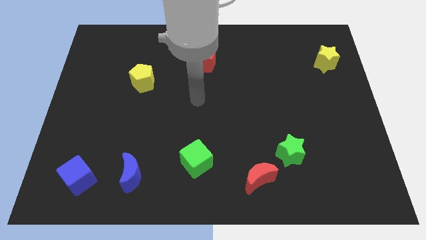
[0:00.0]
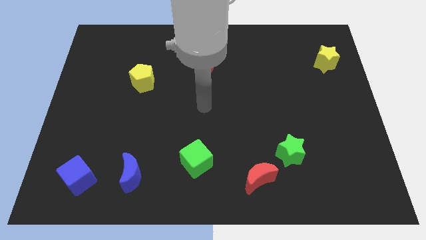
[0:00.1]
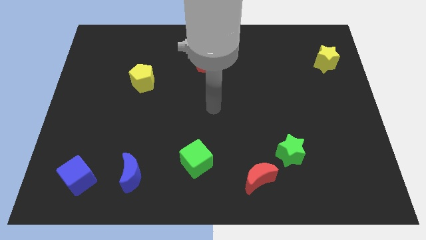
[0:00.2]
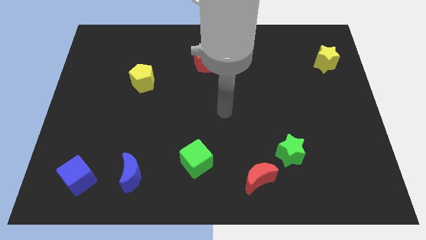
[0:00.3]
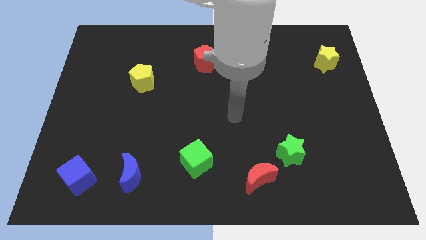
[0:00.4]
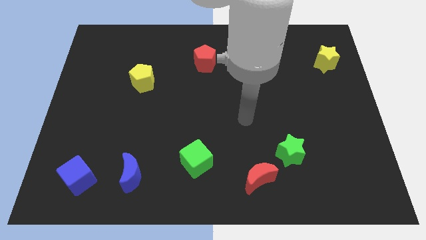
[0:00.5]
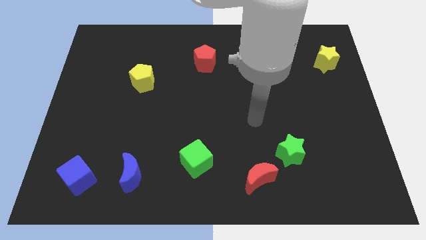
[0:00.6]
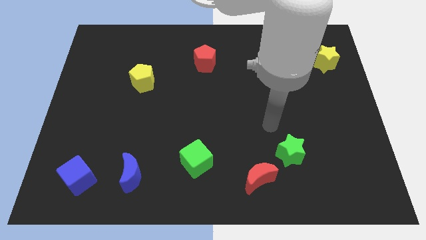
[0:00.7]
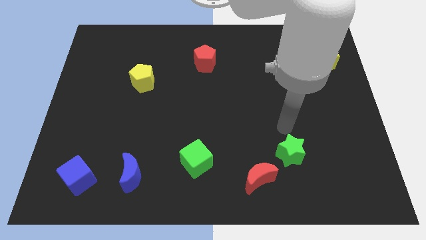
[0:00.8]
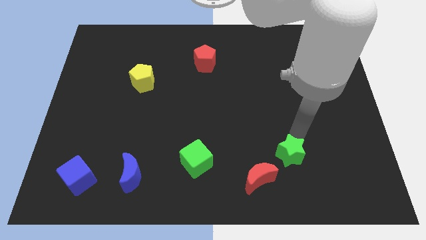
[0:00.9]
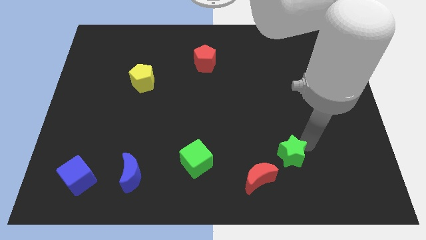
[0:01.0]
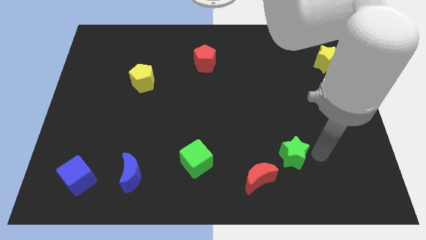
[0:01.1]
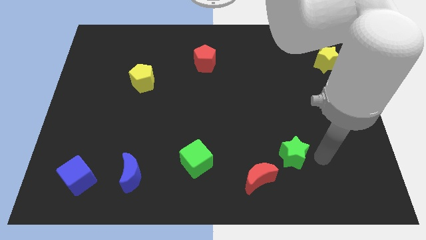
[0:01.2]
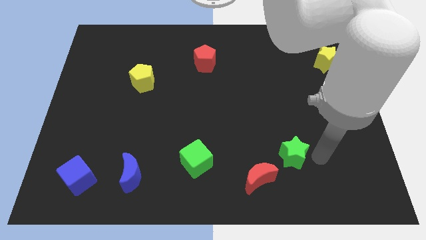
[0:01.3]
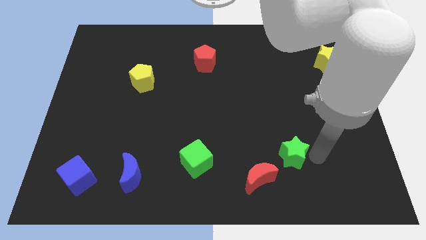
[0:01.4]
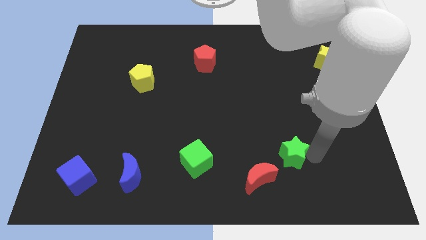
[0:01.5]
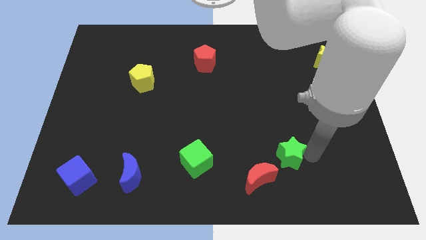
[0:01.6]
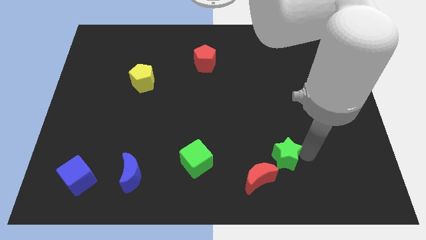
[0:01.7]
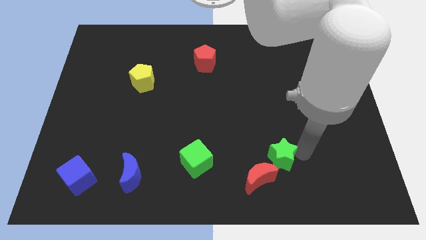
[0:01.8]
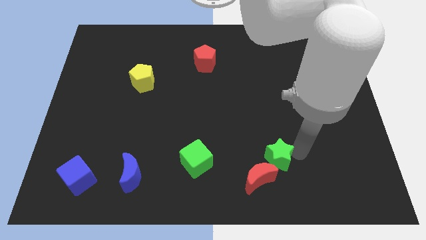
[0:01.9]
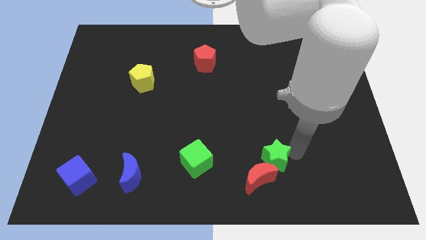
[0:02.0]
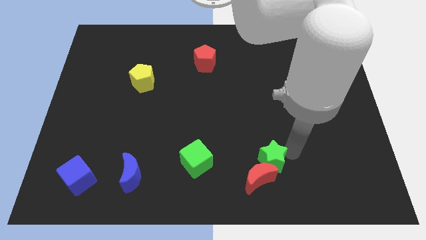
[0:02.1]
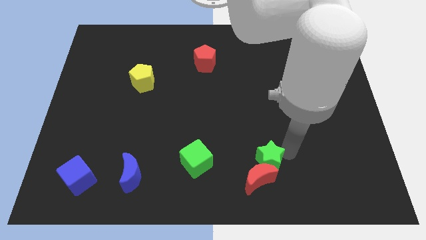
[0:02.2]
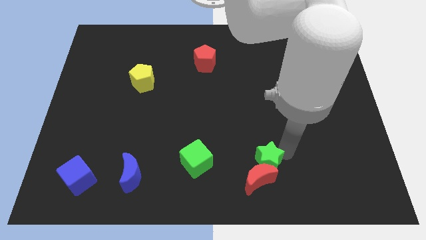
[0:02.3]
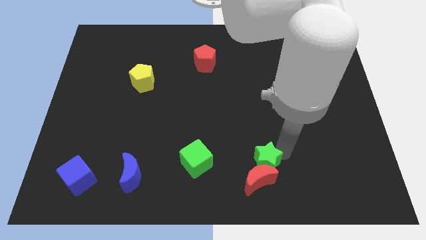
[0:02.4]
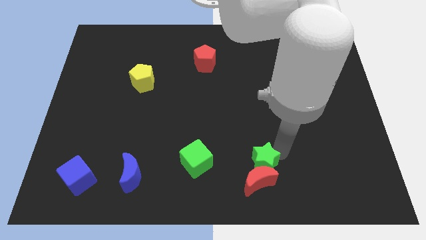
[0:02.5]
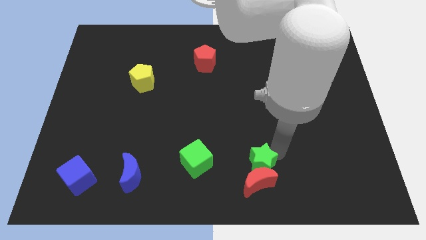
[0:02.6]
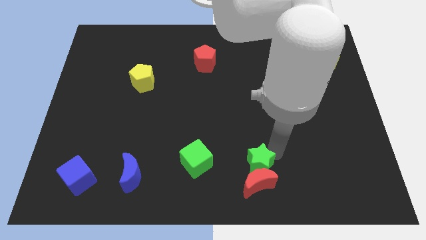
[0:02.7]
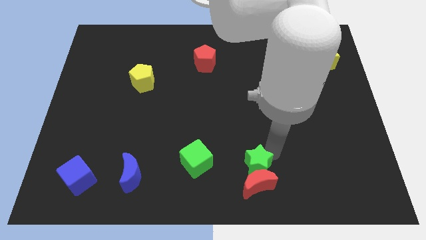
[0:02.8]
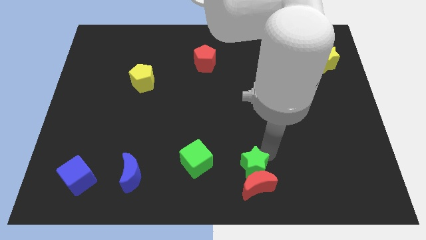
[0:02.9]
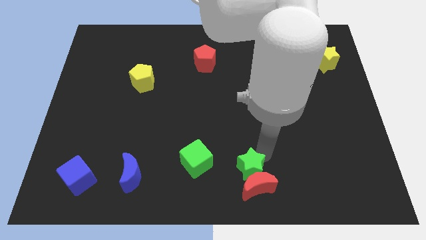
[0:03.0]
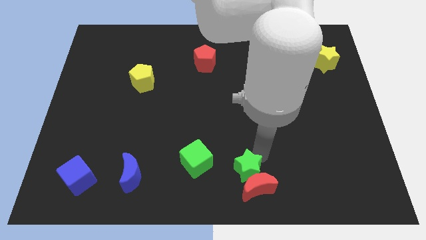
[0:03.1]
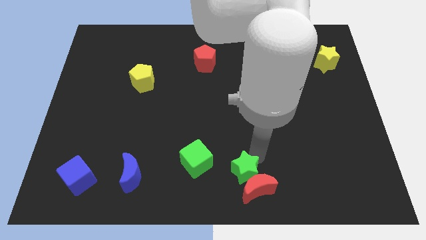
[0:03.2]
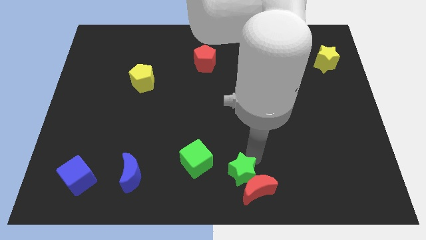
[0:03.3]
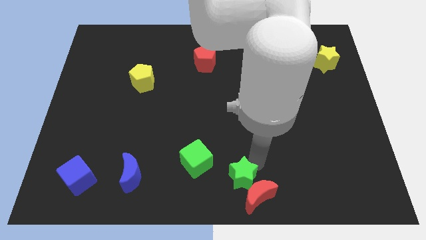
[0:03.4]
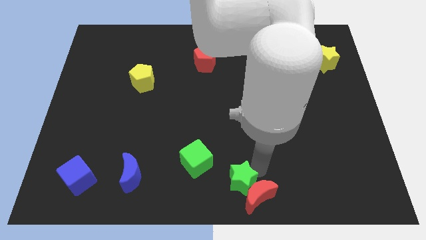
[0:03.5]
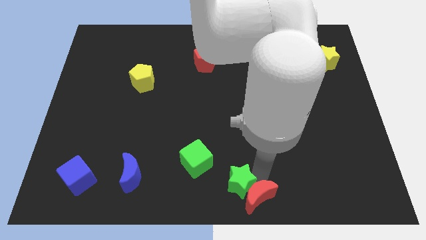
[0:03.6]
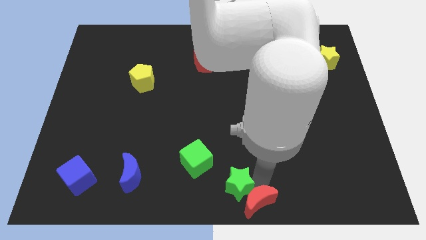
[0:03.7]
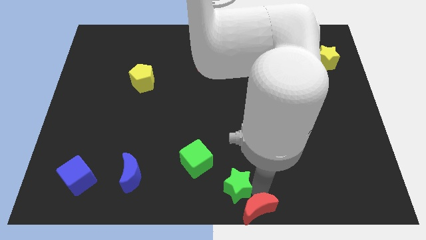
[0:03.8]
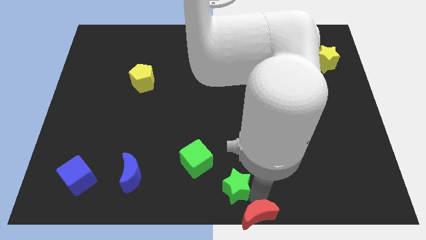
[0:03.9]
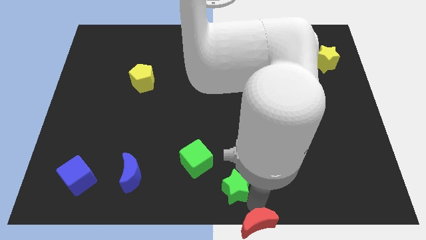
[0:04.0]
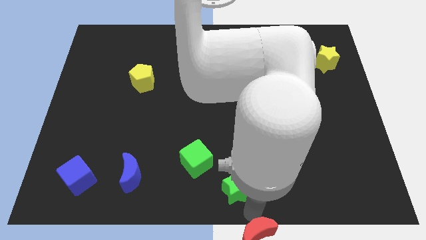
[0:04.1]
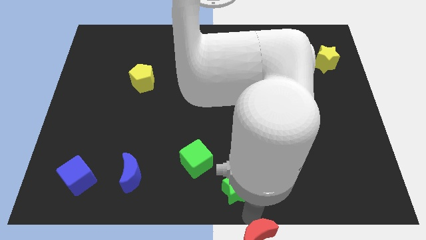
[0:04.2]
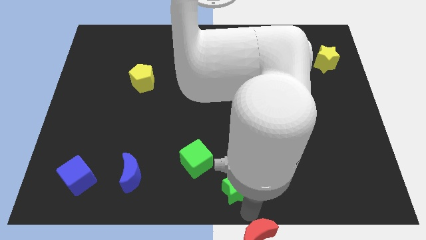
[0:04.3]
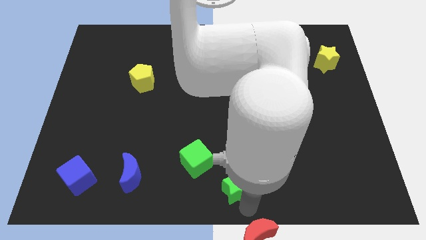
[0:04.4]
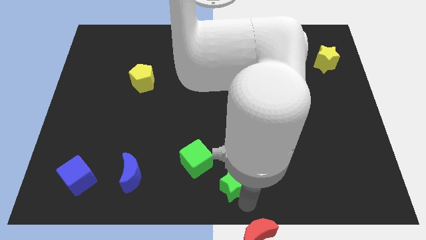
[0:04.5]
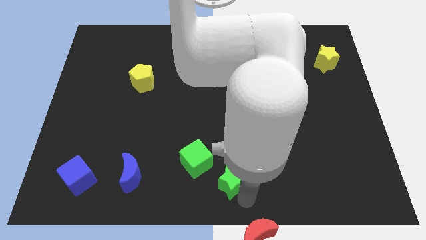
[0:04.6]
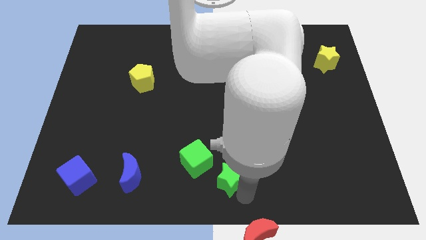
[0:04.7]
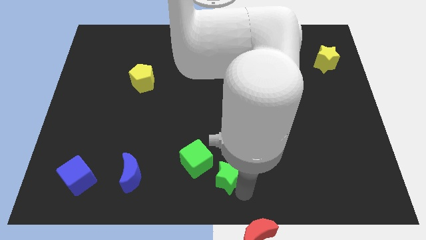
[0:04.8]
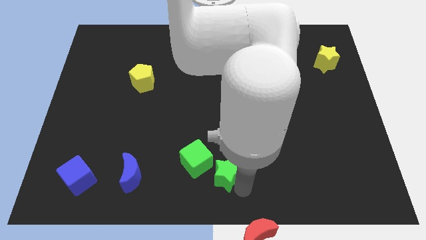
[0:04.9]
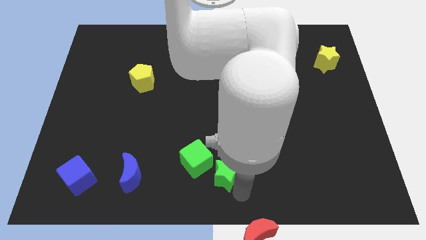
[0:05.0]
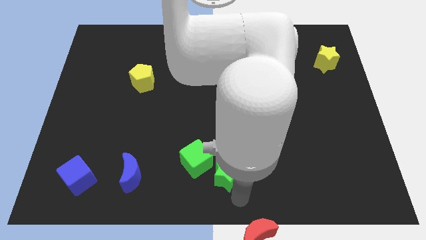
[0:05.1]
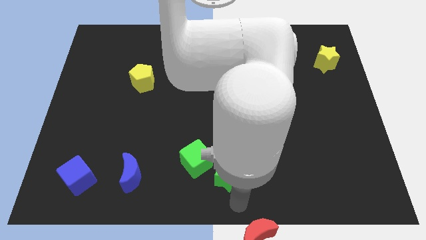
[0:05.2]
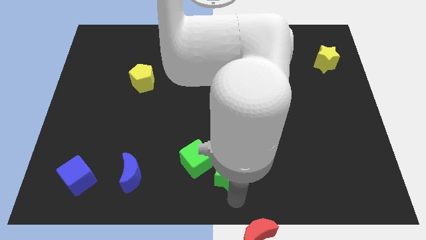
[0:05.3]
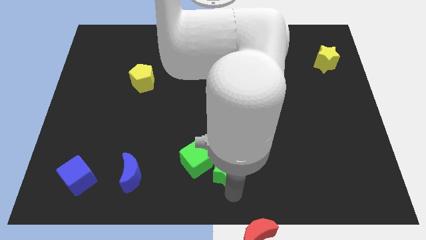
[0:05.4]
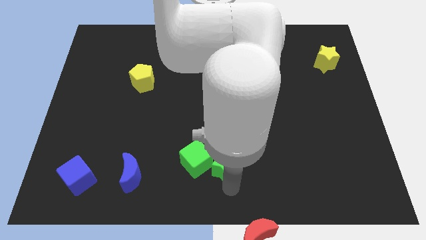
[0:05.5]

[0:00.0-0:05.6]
move the green star close to the green cube
